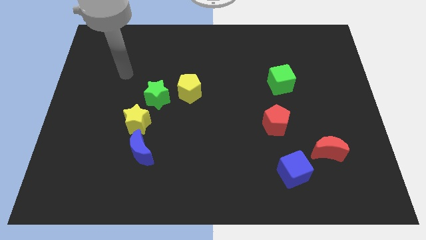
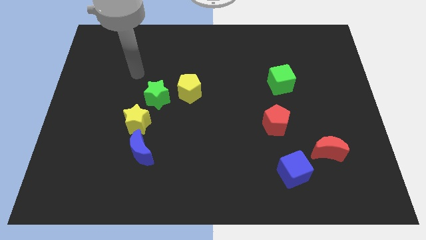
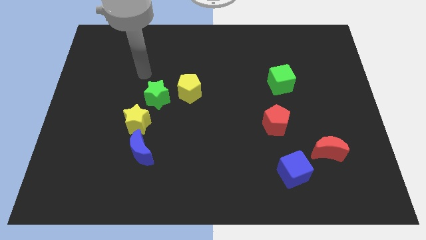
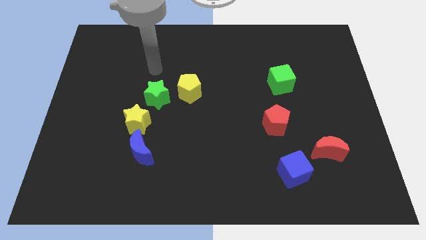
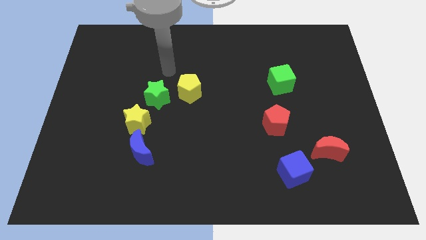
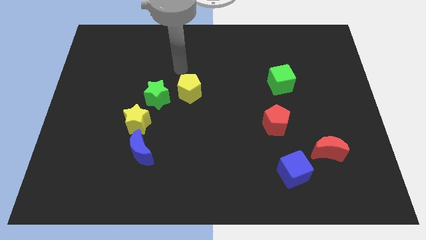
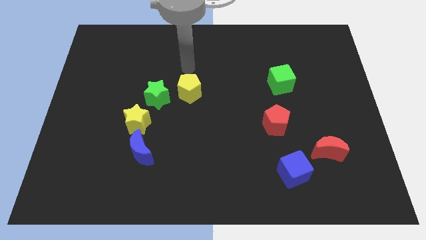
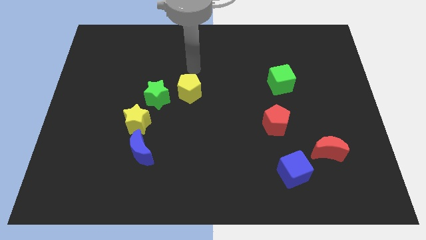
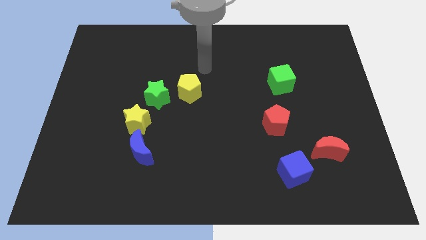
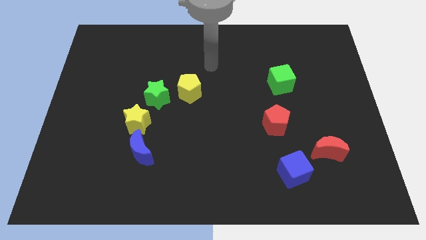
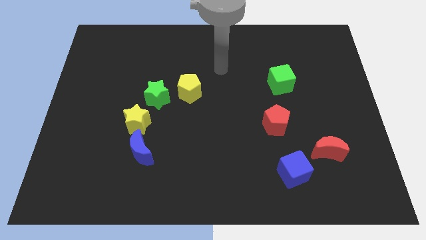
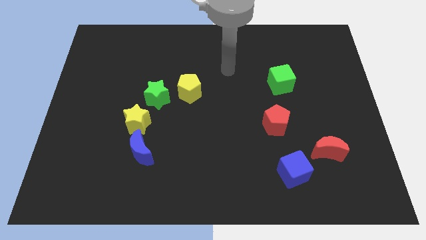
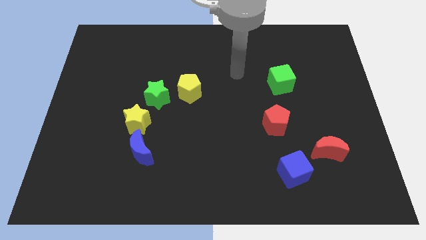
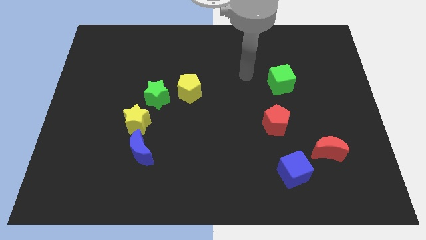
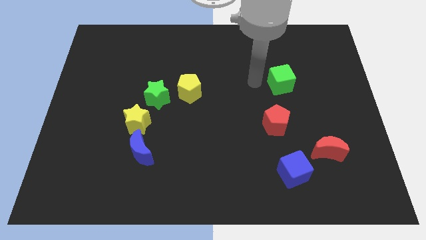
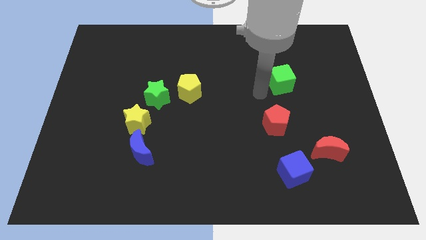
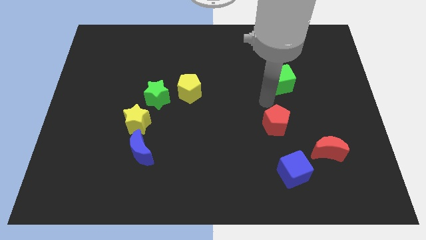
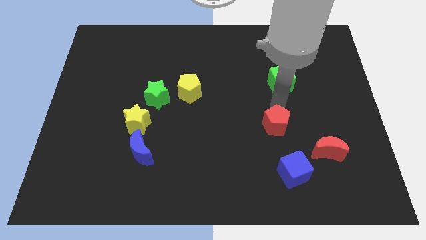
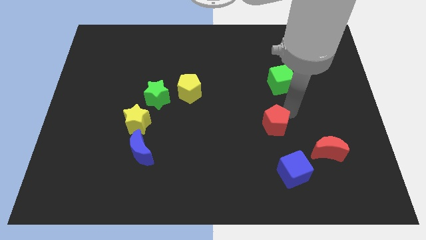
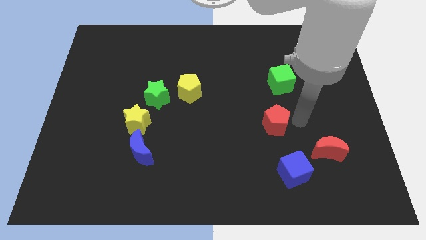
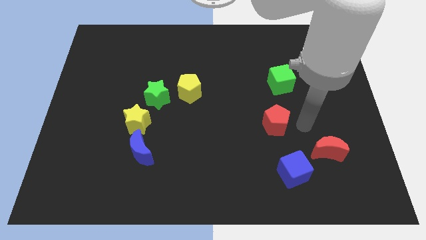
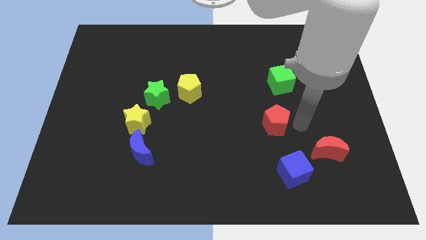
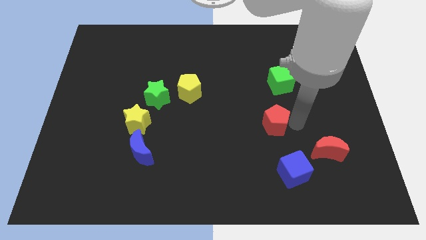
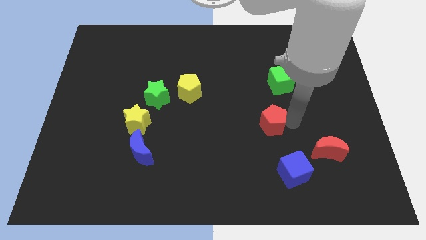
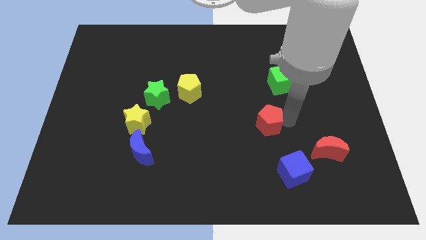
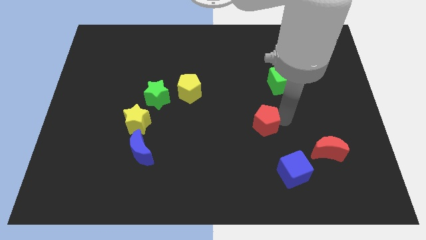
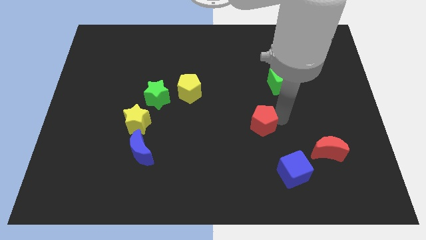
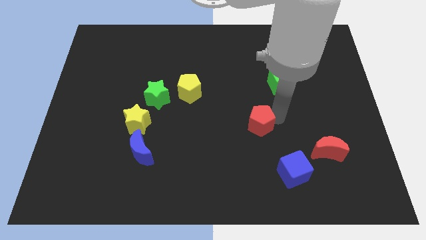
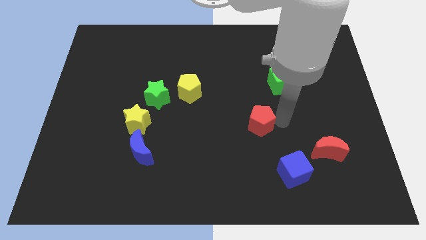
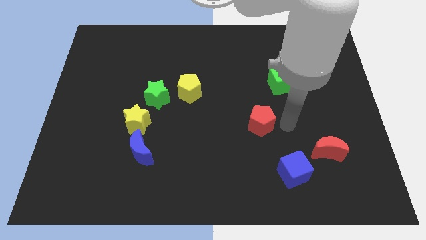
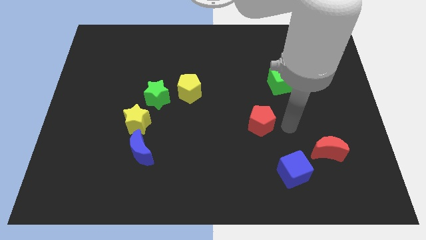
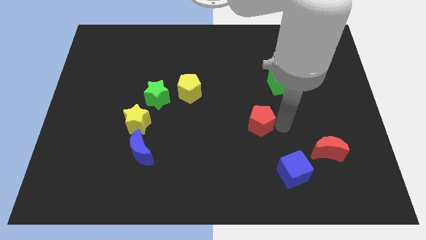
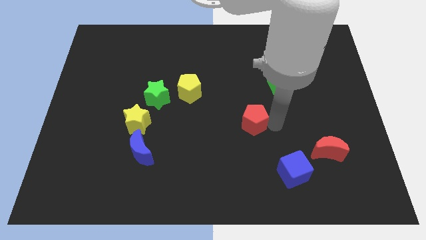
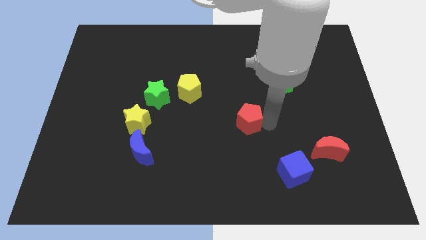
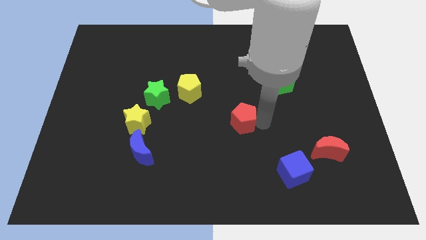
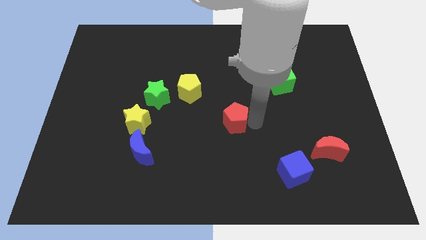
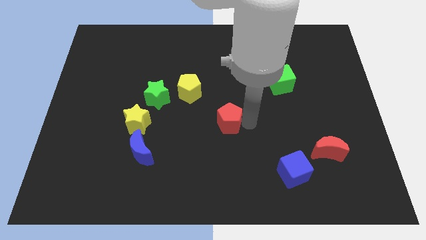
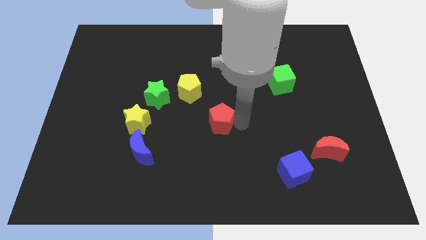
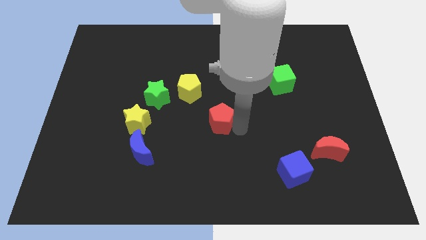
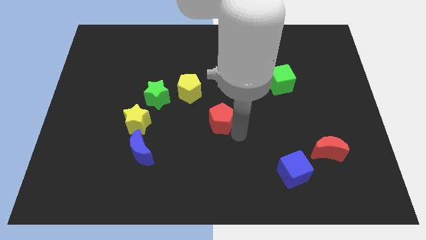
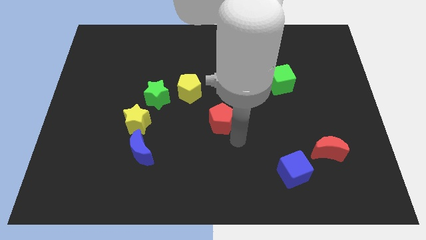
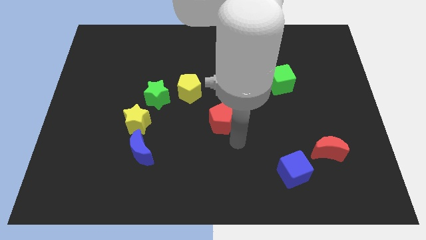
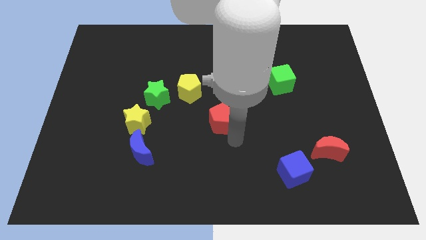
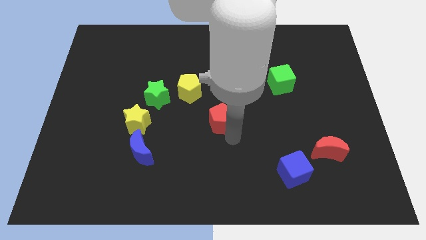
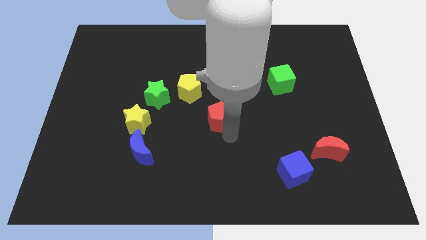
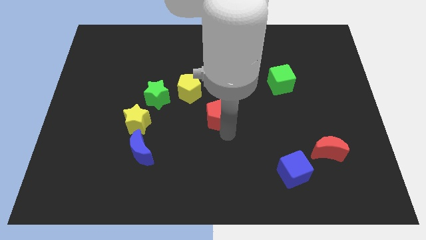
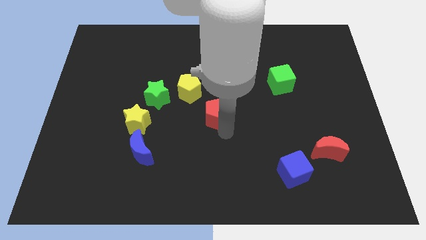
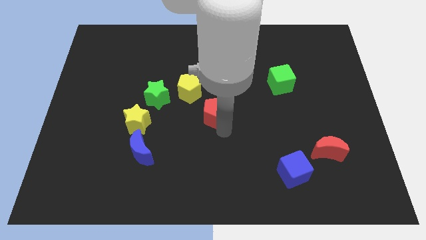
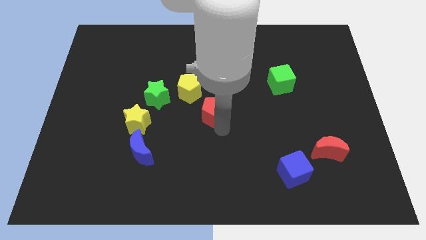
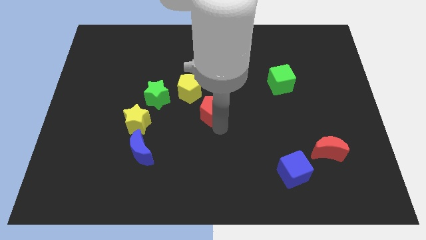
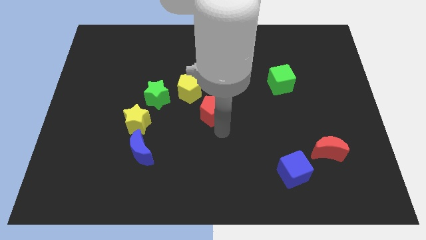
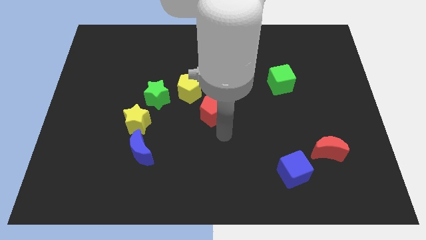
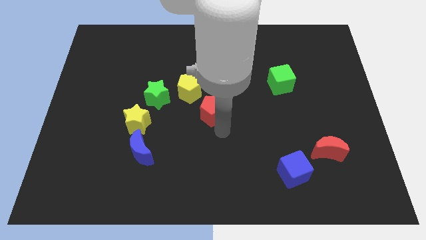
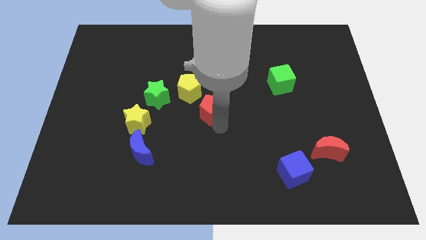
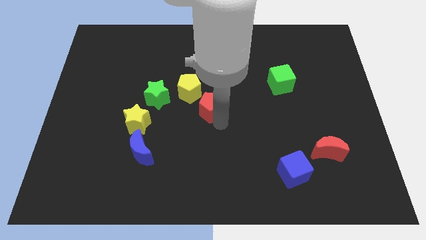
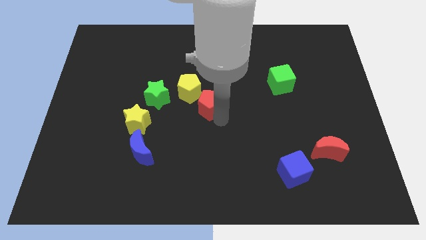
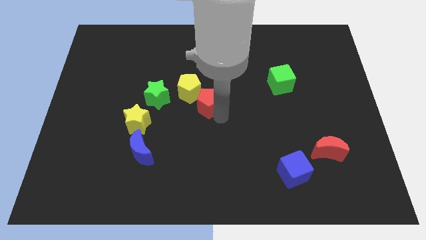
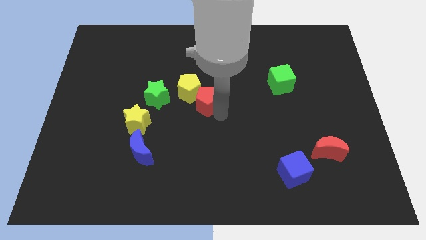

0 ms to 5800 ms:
move the red pentagon towards the yellow pentagon

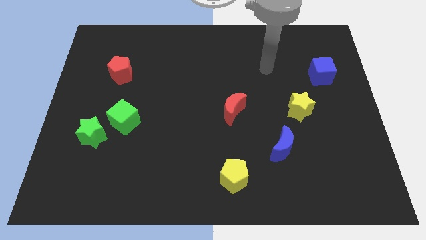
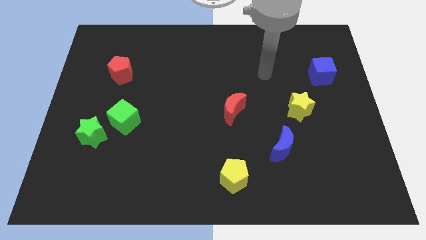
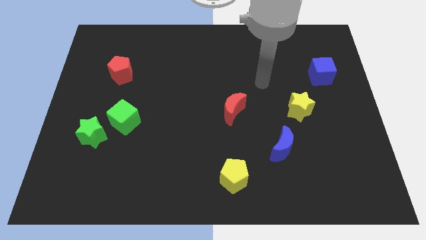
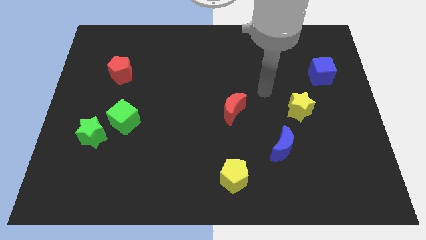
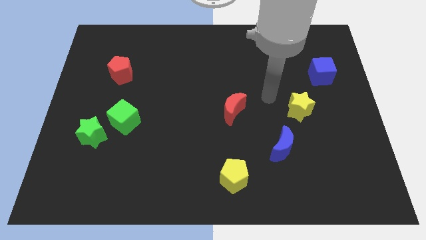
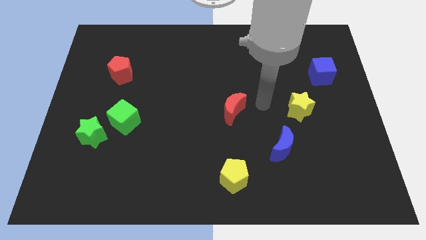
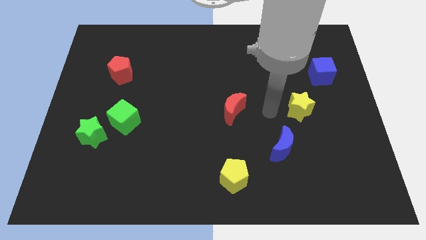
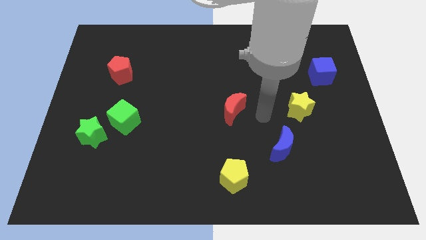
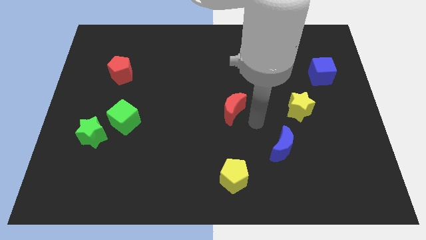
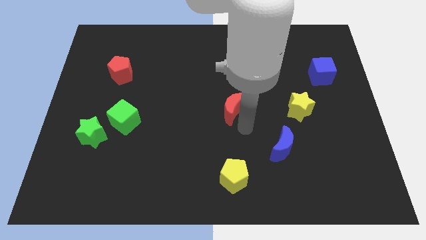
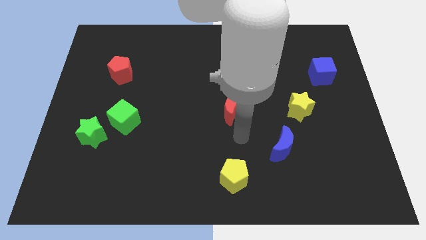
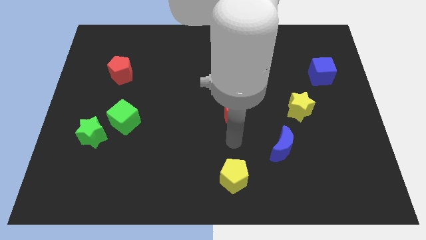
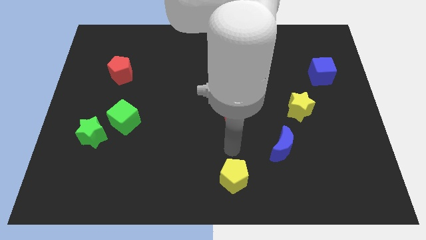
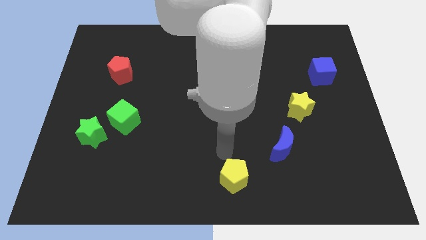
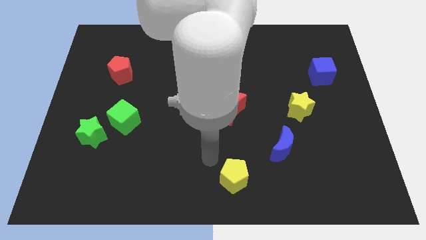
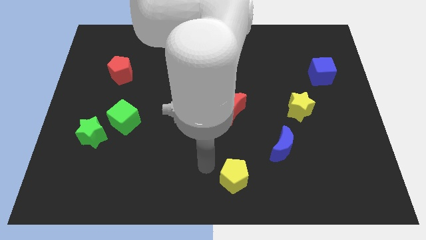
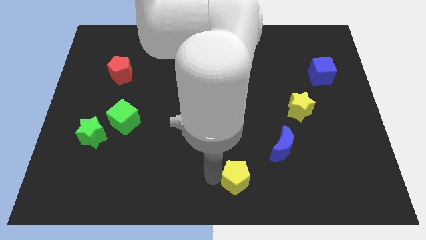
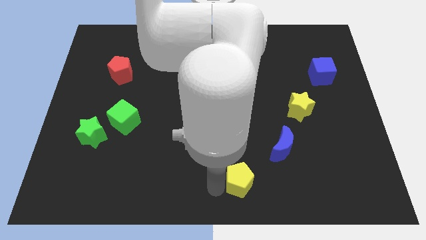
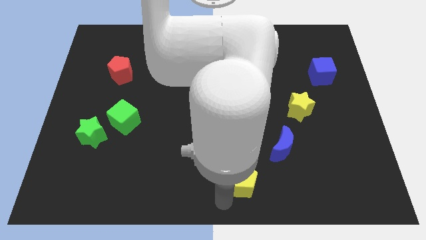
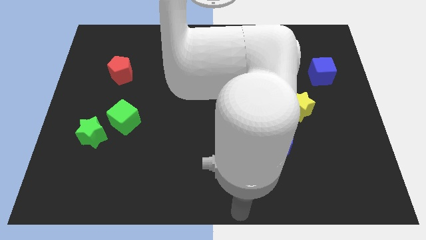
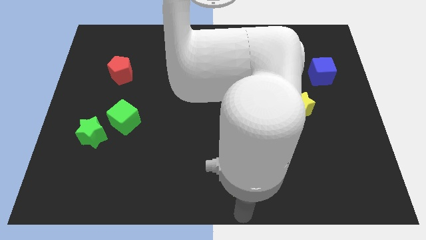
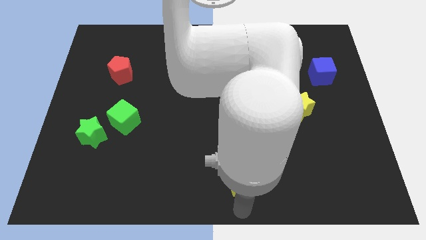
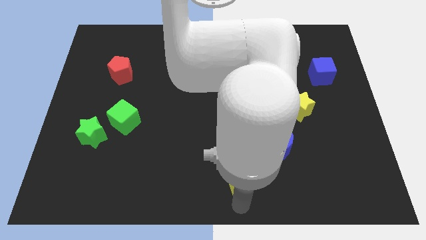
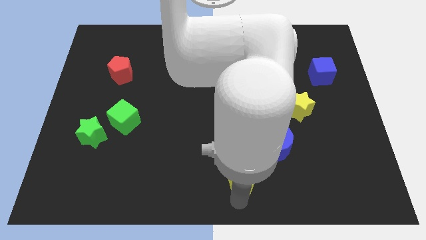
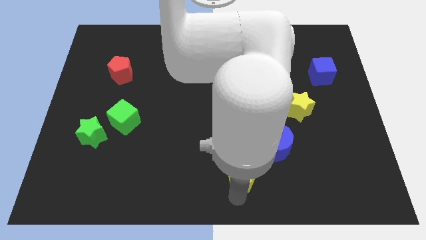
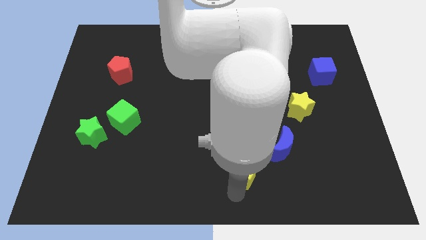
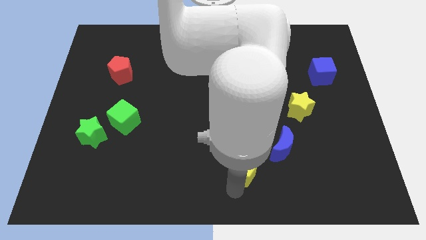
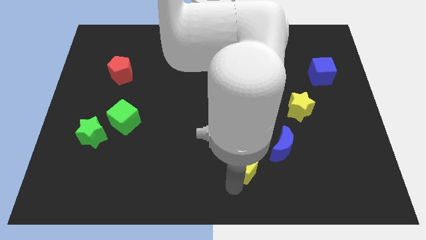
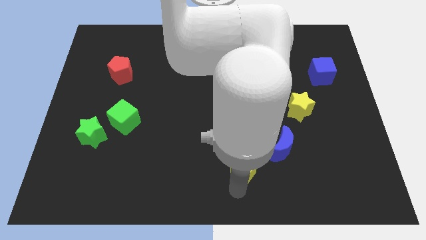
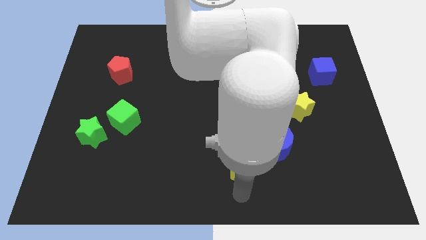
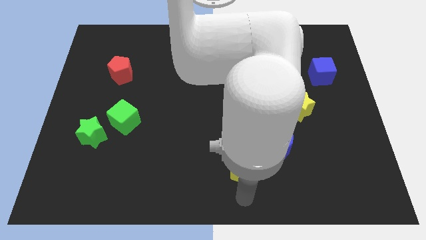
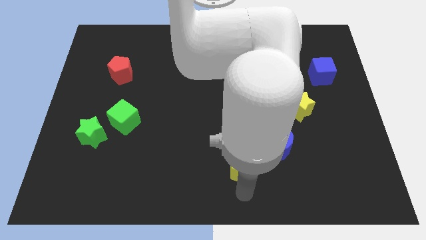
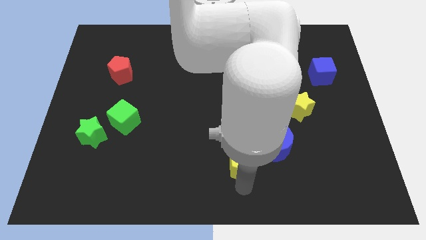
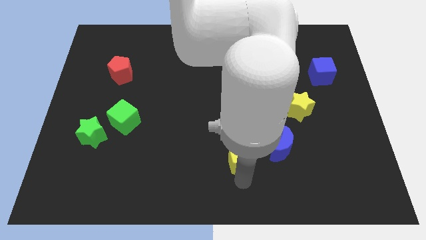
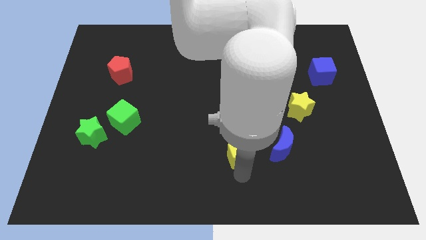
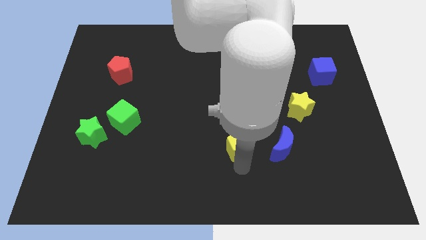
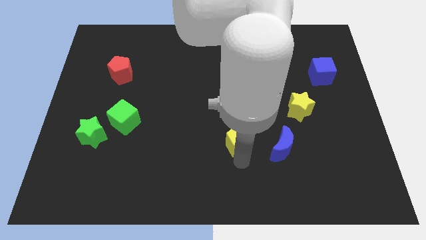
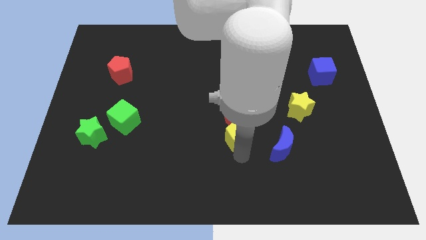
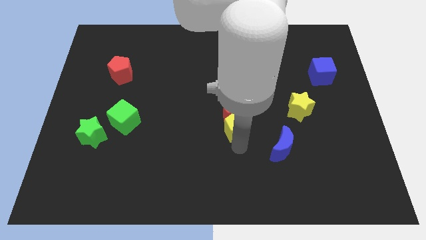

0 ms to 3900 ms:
slide the yellow pentagon to the red moon
